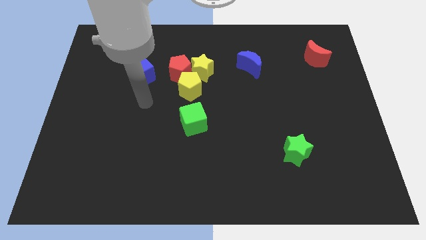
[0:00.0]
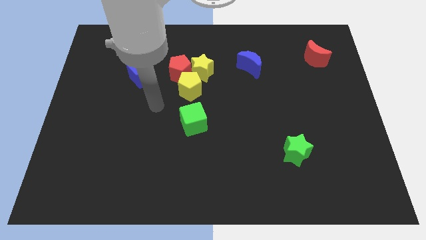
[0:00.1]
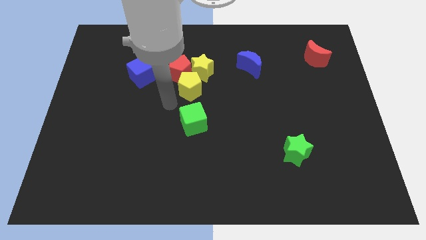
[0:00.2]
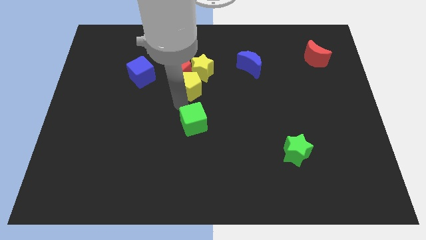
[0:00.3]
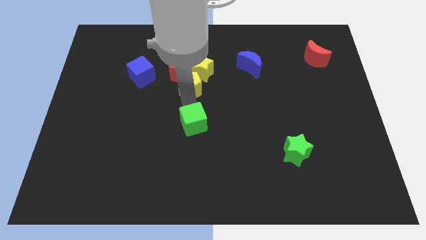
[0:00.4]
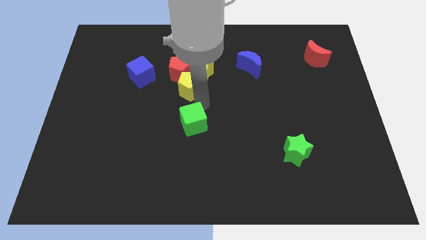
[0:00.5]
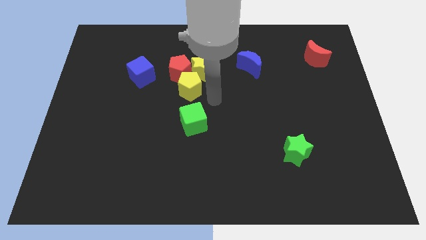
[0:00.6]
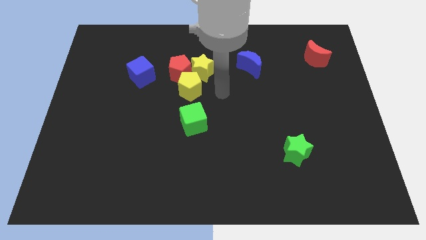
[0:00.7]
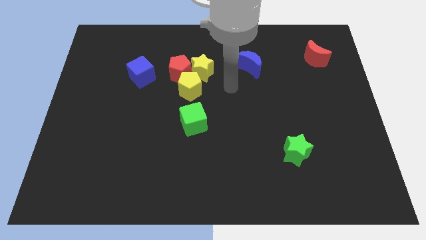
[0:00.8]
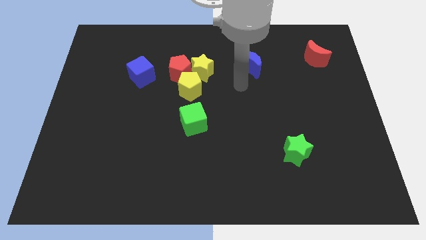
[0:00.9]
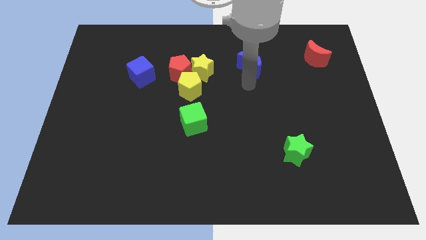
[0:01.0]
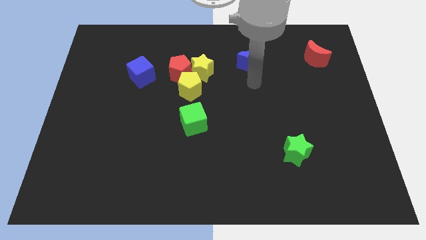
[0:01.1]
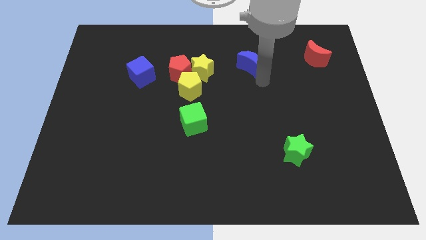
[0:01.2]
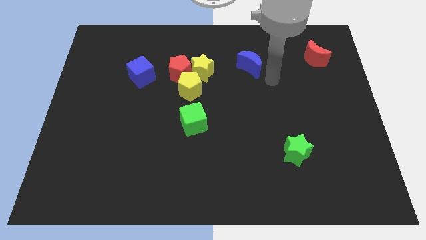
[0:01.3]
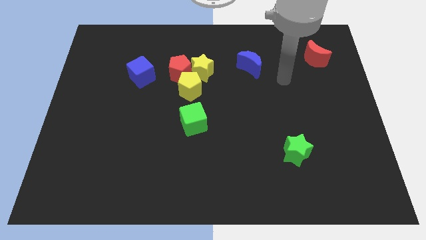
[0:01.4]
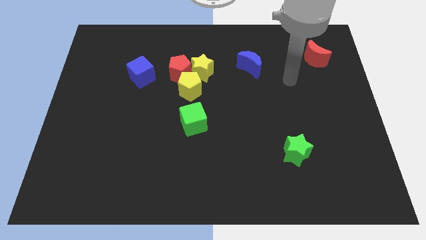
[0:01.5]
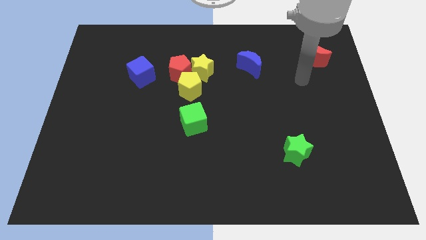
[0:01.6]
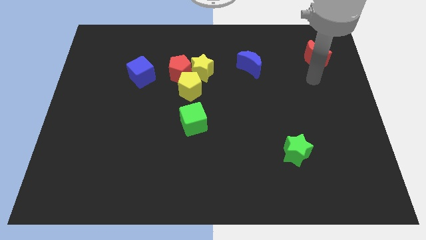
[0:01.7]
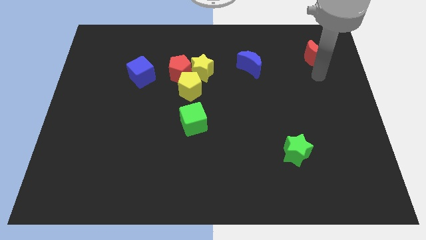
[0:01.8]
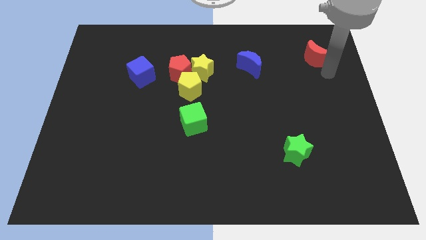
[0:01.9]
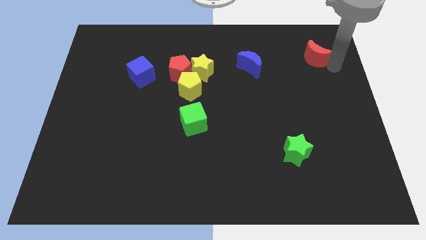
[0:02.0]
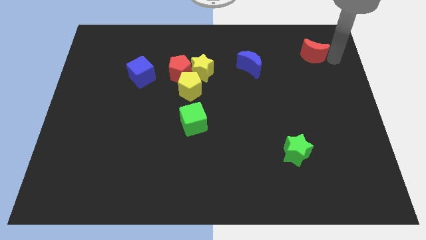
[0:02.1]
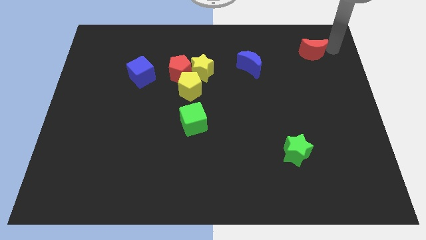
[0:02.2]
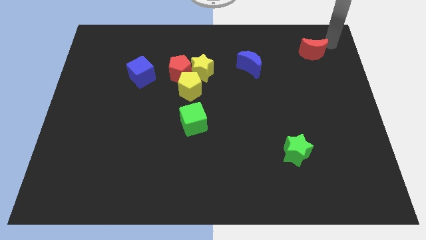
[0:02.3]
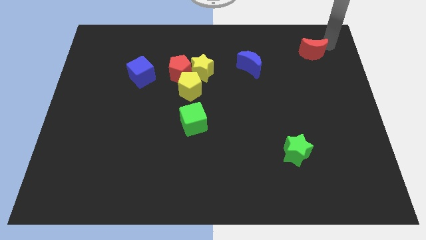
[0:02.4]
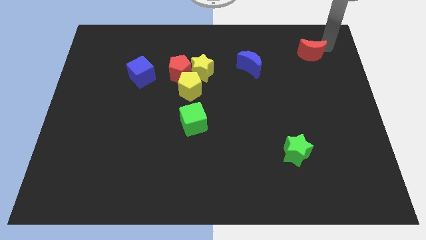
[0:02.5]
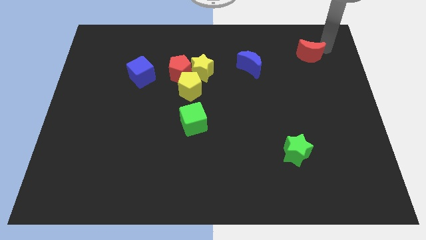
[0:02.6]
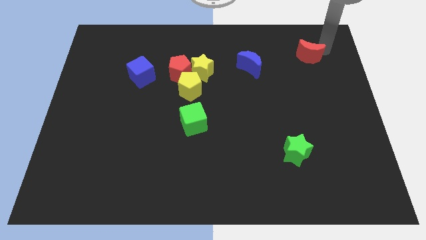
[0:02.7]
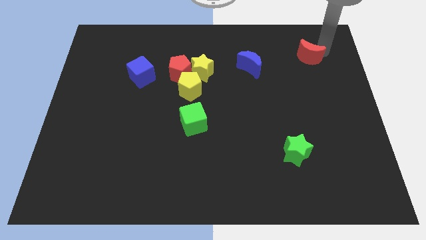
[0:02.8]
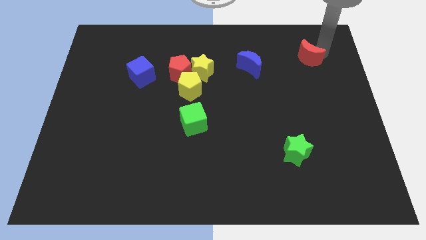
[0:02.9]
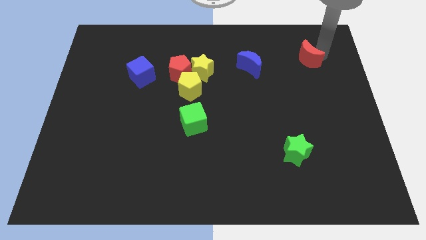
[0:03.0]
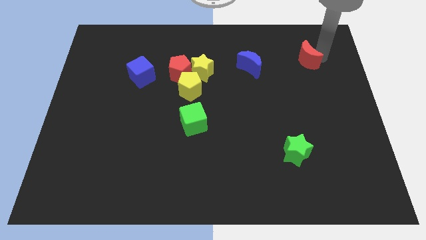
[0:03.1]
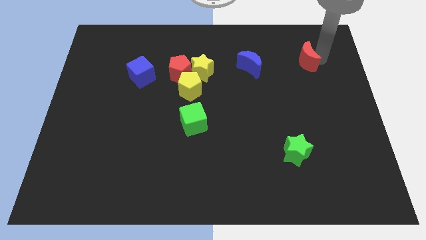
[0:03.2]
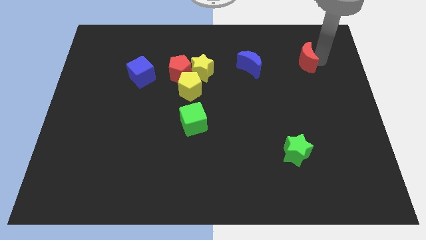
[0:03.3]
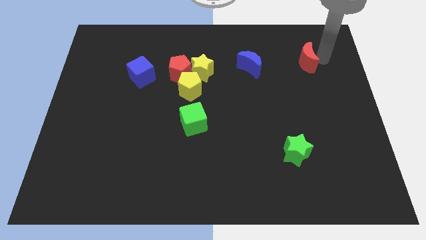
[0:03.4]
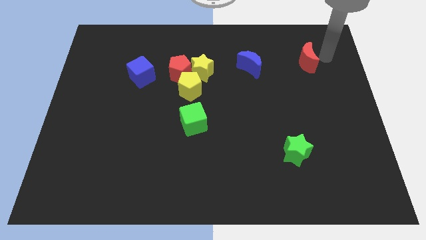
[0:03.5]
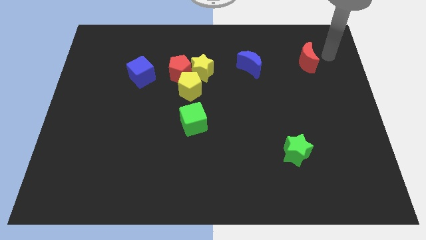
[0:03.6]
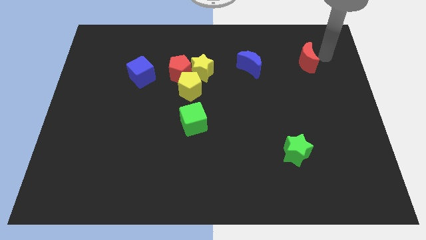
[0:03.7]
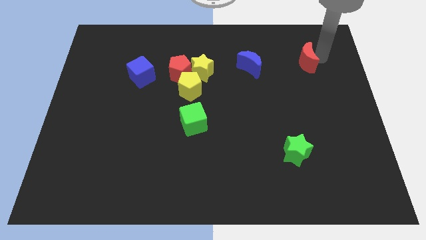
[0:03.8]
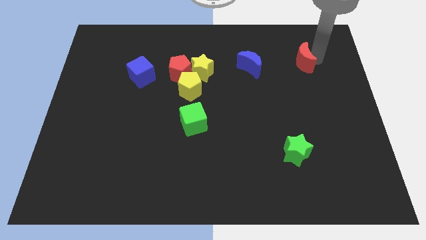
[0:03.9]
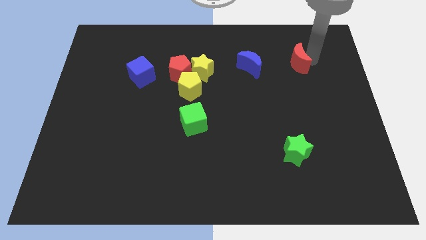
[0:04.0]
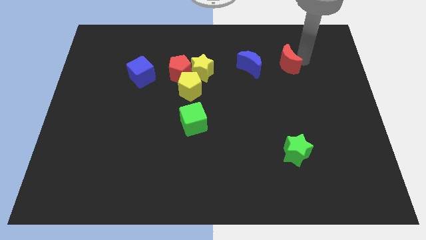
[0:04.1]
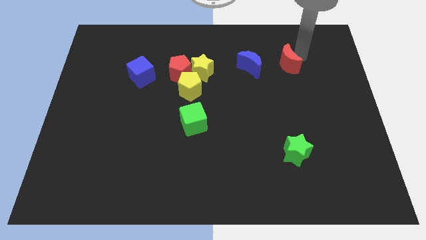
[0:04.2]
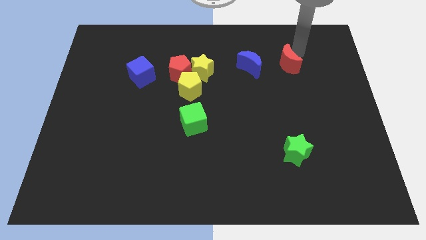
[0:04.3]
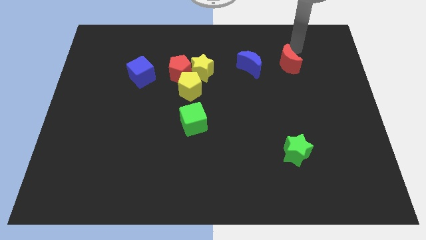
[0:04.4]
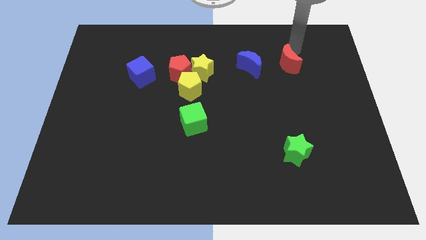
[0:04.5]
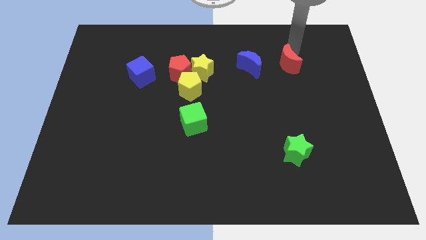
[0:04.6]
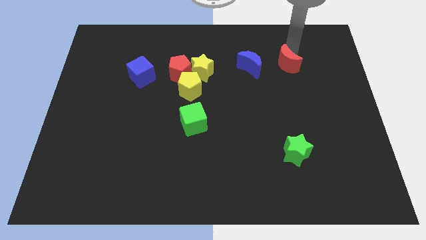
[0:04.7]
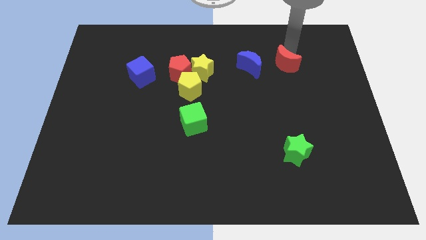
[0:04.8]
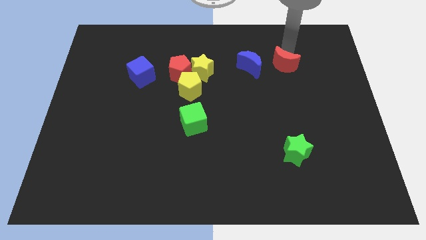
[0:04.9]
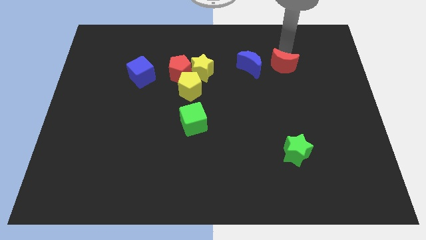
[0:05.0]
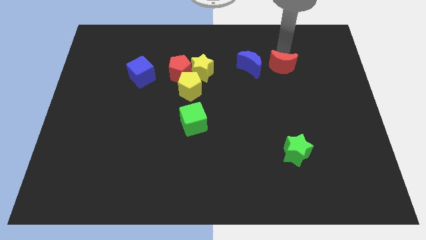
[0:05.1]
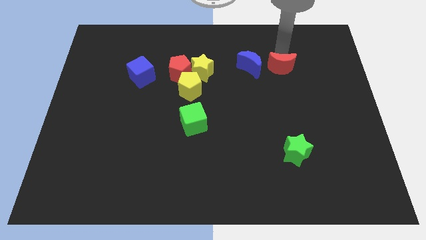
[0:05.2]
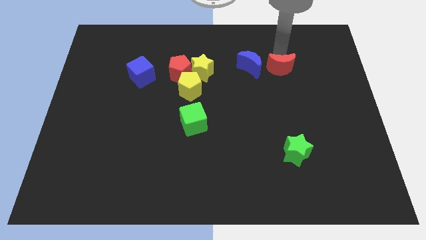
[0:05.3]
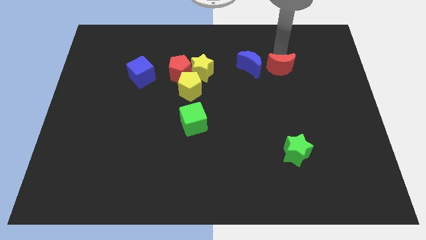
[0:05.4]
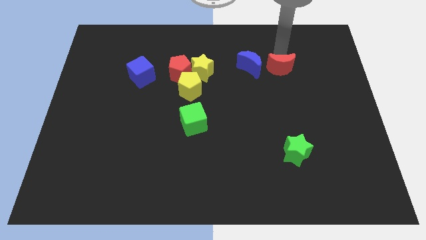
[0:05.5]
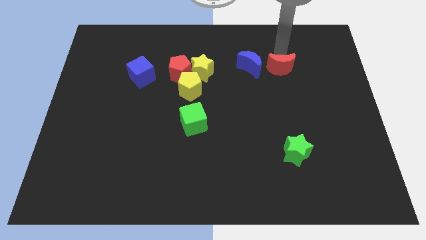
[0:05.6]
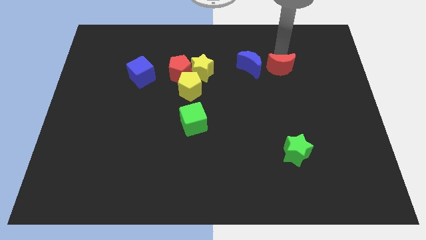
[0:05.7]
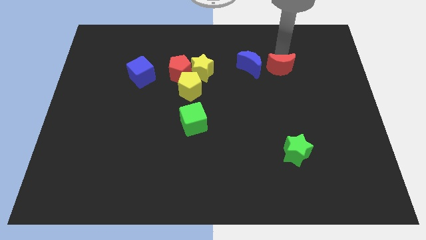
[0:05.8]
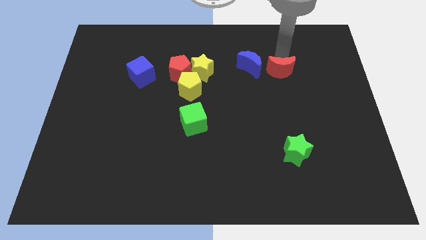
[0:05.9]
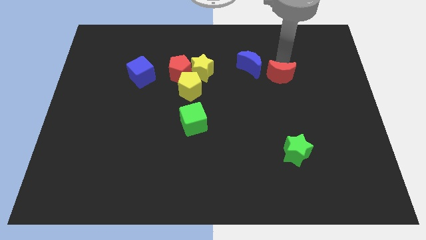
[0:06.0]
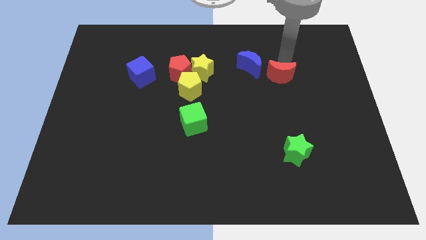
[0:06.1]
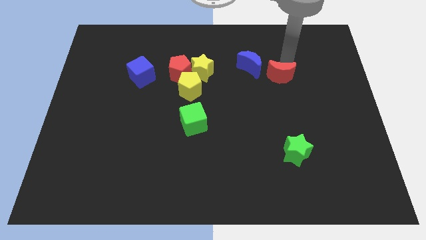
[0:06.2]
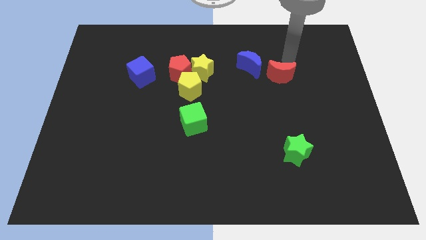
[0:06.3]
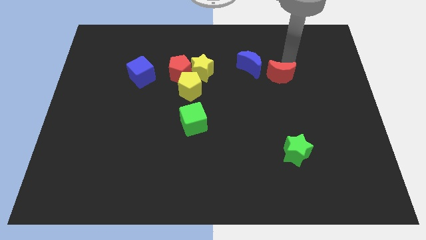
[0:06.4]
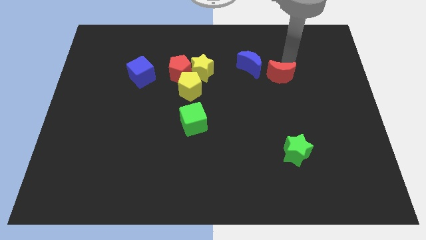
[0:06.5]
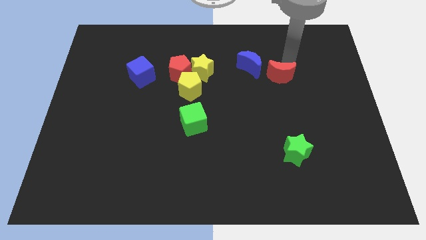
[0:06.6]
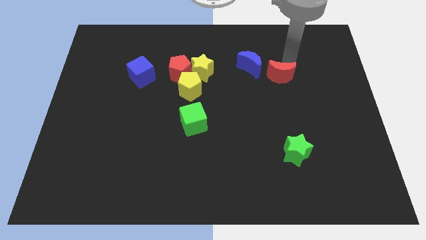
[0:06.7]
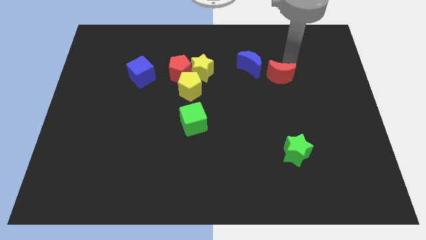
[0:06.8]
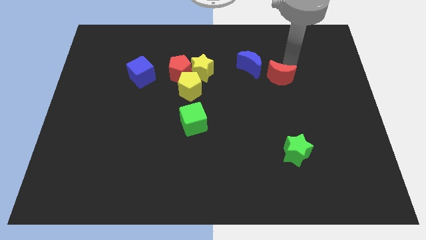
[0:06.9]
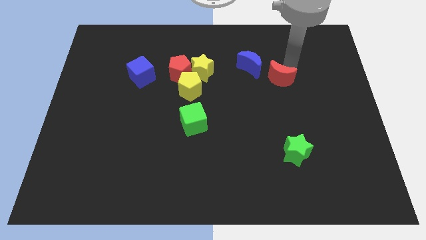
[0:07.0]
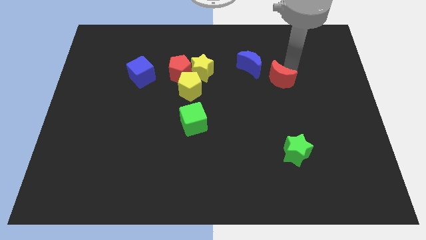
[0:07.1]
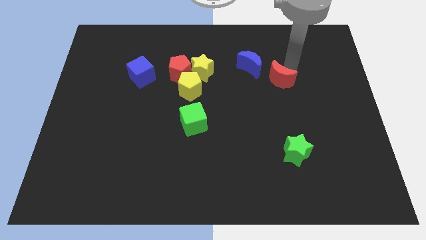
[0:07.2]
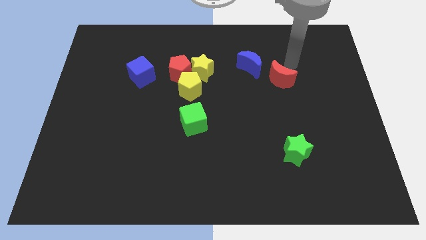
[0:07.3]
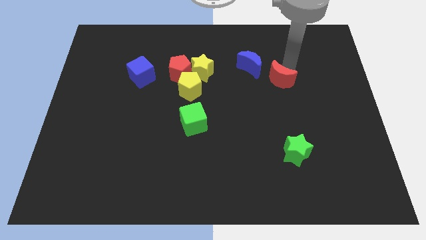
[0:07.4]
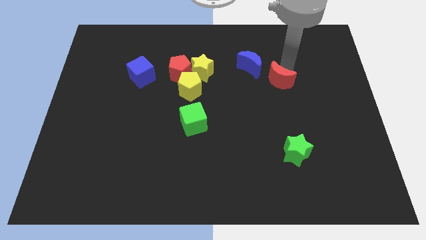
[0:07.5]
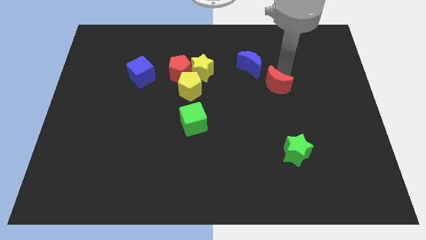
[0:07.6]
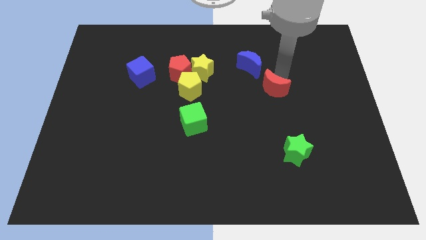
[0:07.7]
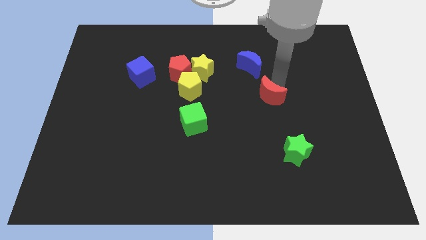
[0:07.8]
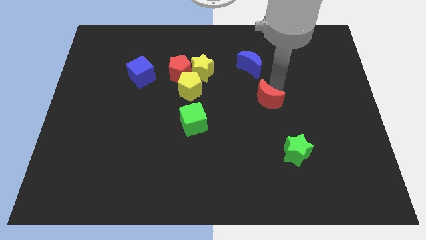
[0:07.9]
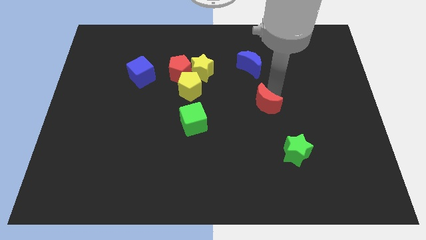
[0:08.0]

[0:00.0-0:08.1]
slide the red moon down and left
